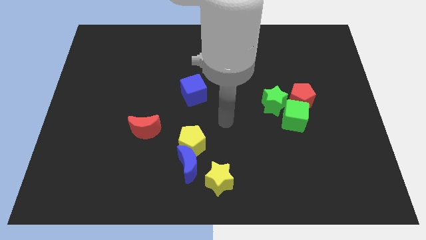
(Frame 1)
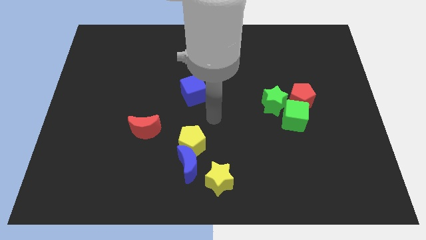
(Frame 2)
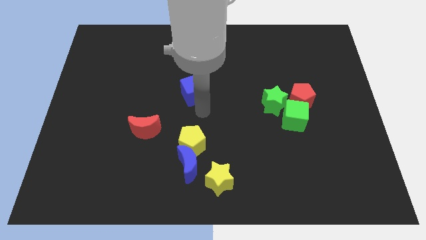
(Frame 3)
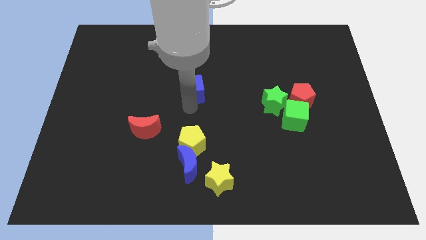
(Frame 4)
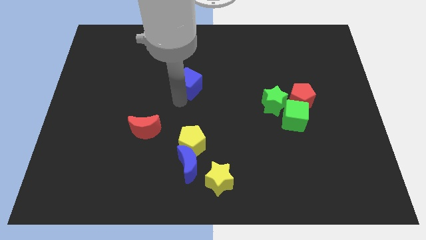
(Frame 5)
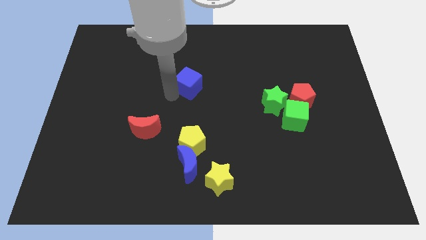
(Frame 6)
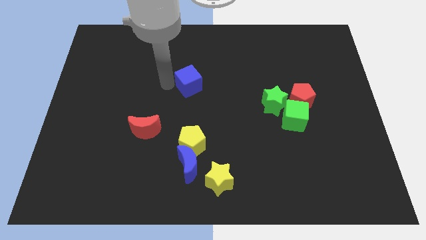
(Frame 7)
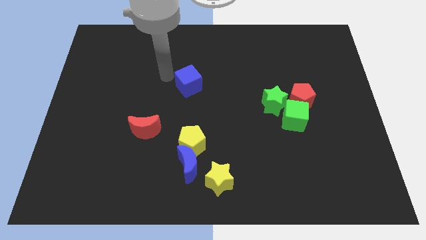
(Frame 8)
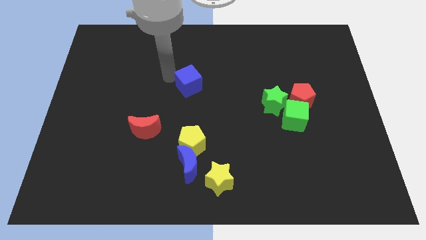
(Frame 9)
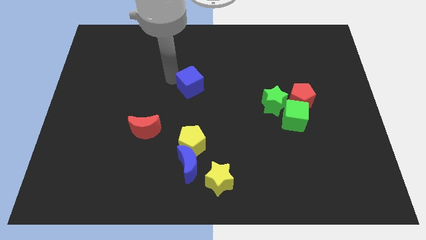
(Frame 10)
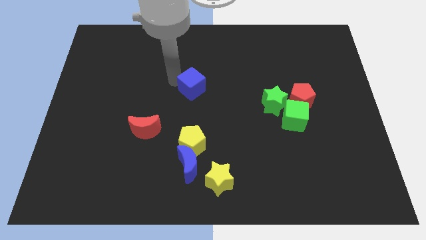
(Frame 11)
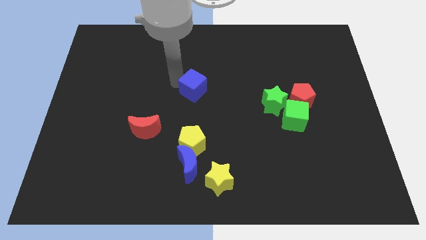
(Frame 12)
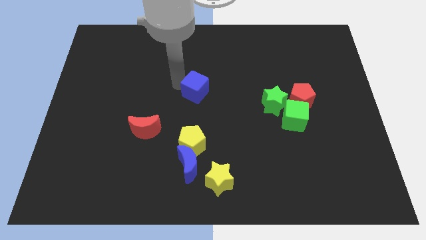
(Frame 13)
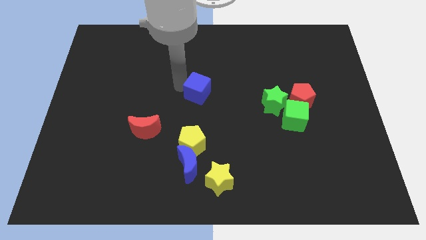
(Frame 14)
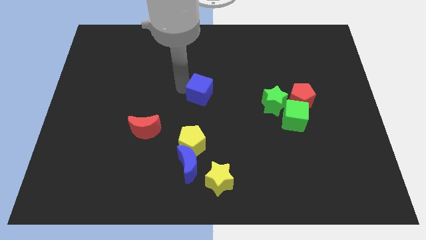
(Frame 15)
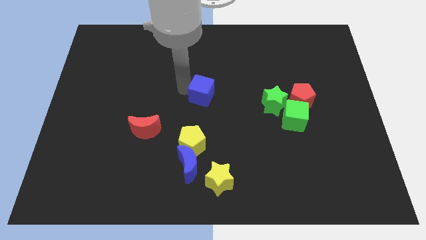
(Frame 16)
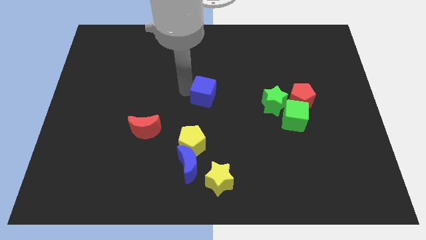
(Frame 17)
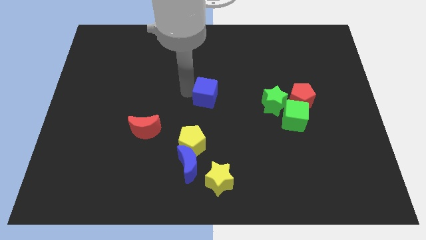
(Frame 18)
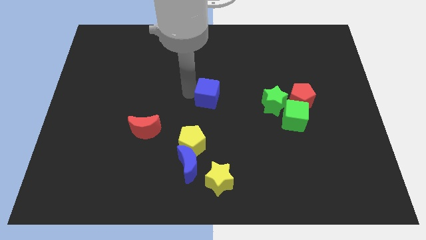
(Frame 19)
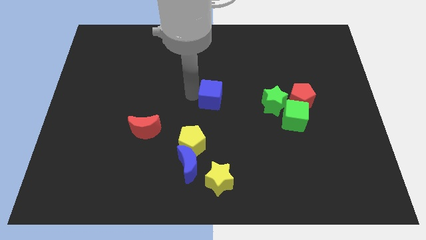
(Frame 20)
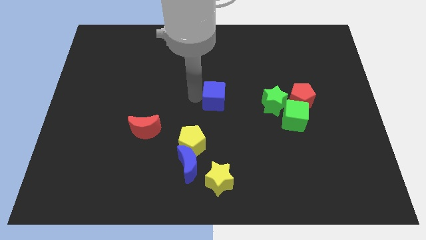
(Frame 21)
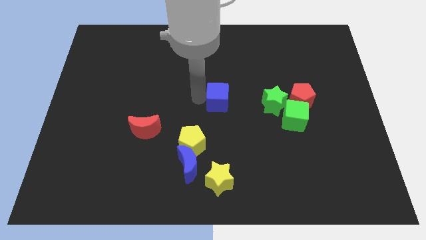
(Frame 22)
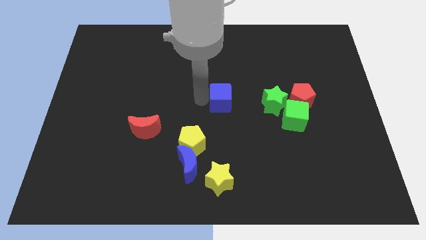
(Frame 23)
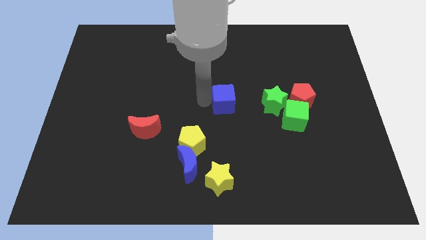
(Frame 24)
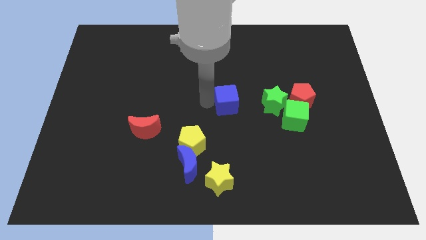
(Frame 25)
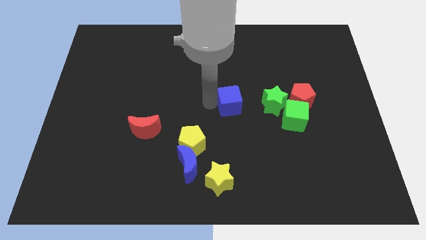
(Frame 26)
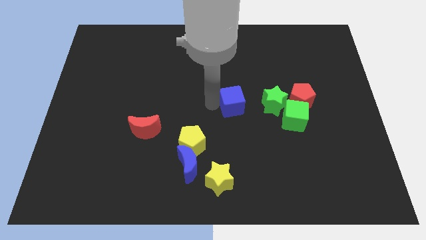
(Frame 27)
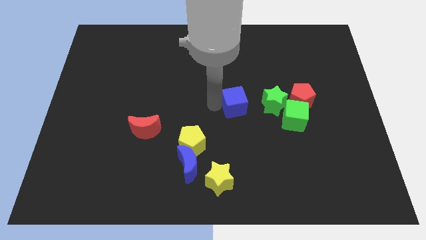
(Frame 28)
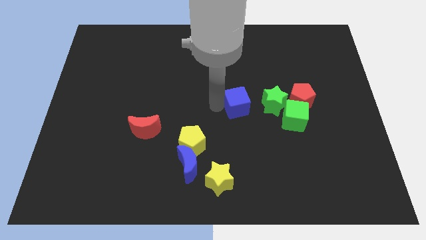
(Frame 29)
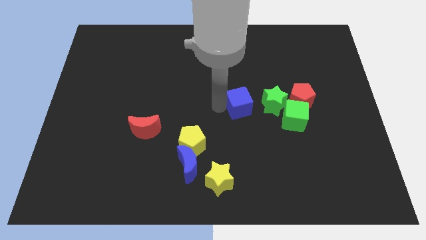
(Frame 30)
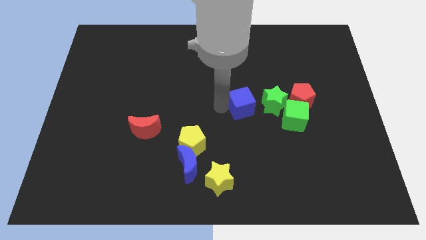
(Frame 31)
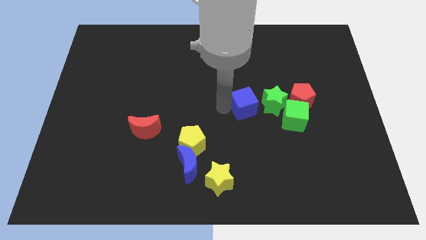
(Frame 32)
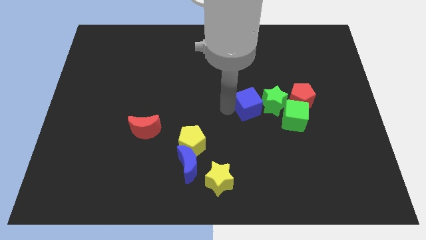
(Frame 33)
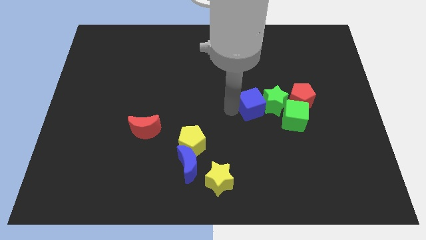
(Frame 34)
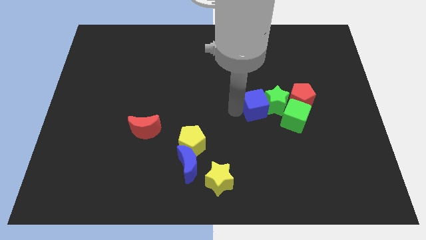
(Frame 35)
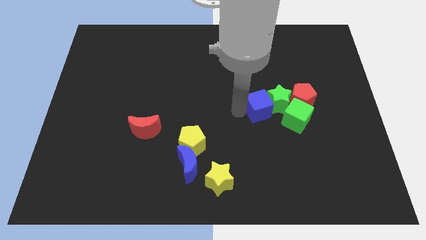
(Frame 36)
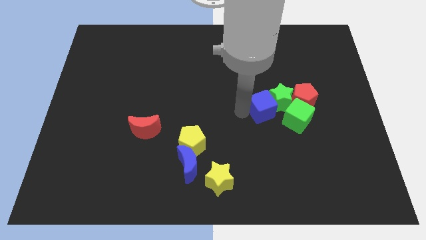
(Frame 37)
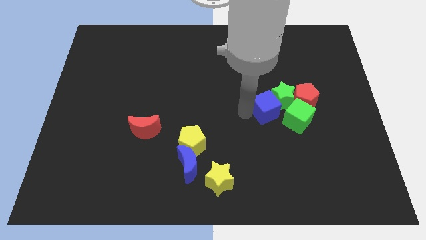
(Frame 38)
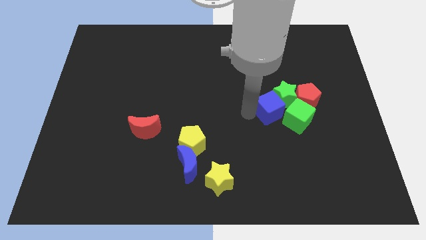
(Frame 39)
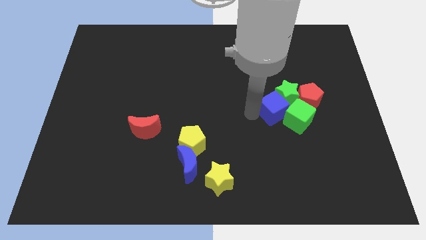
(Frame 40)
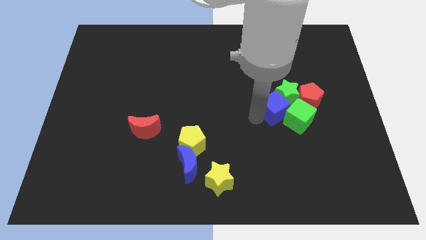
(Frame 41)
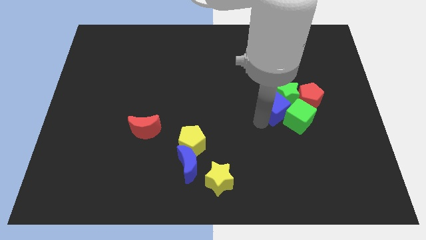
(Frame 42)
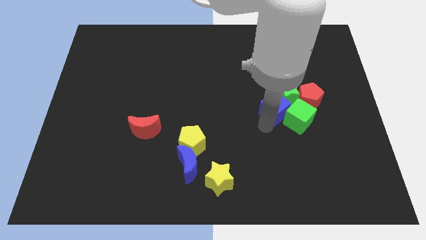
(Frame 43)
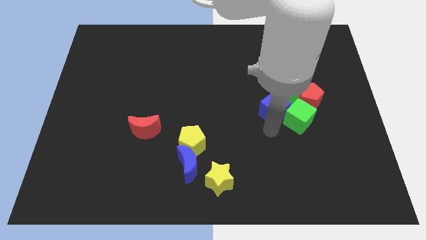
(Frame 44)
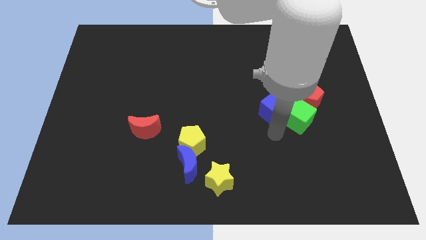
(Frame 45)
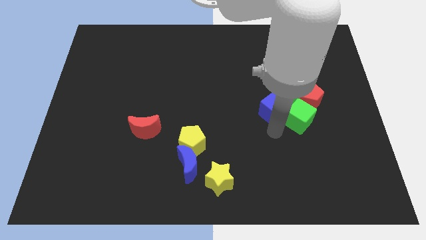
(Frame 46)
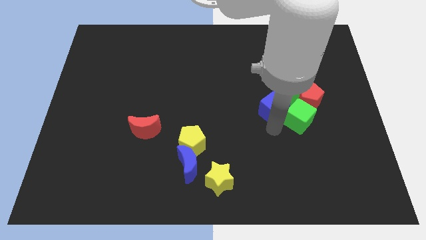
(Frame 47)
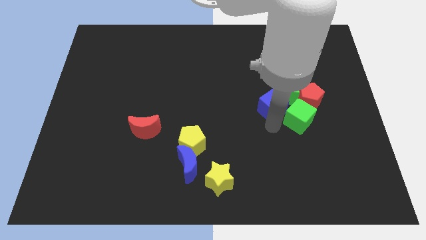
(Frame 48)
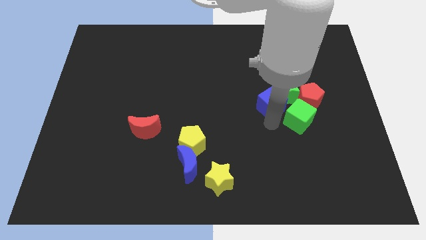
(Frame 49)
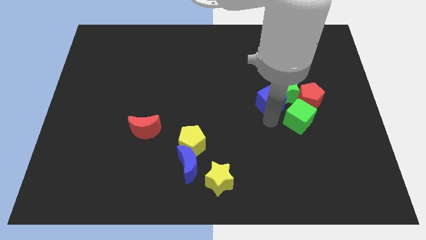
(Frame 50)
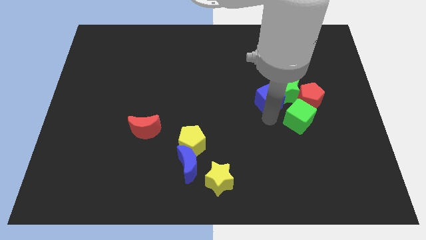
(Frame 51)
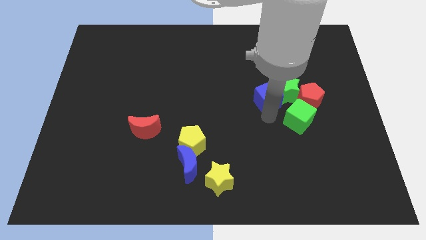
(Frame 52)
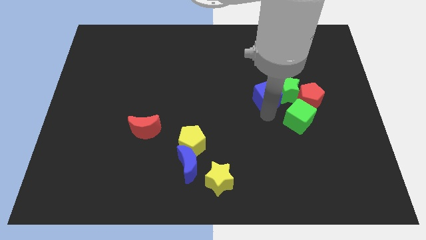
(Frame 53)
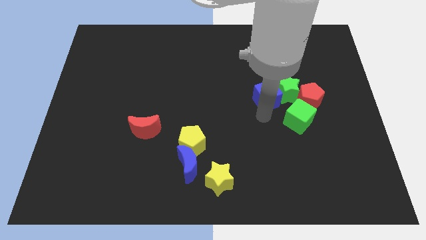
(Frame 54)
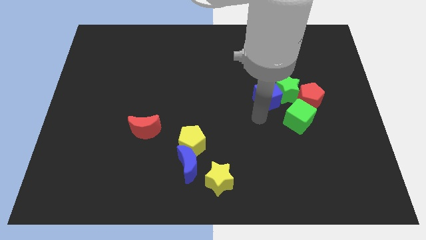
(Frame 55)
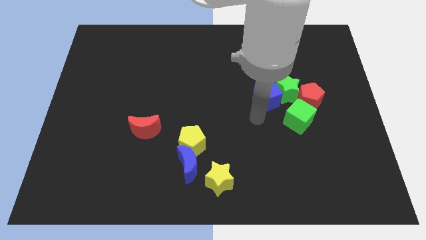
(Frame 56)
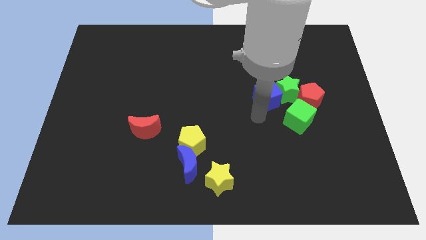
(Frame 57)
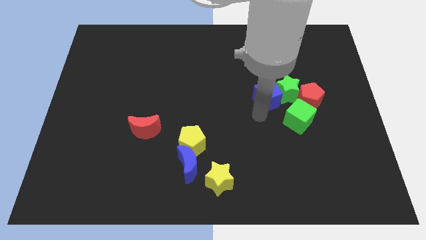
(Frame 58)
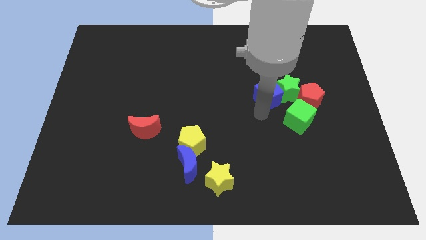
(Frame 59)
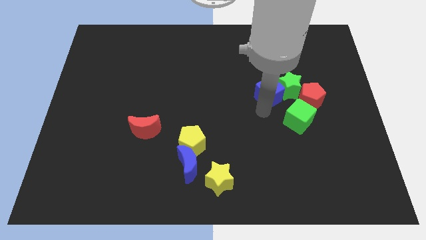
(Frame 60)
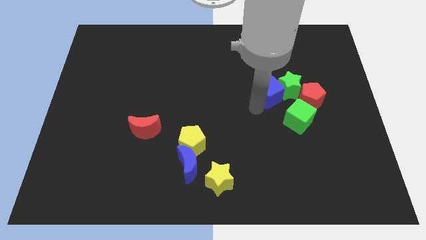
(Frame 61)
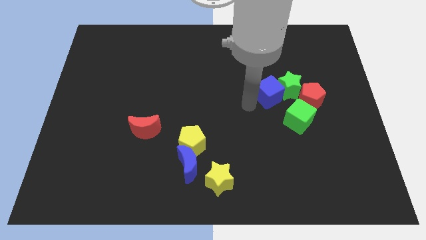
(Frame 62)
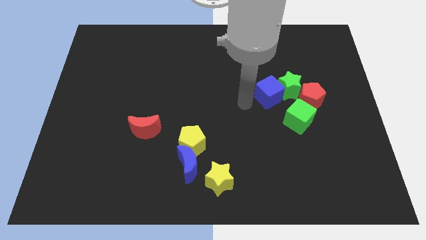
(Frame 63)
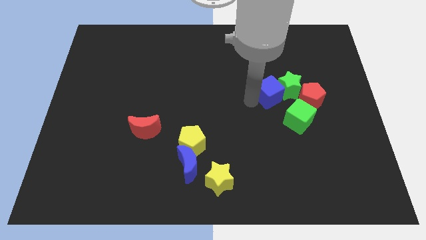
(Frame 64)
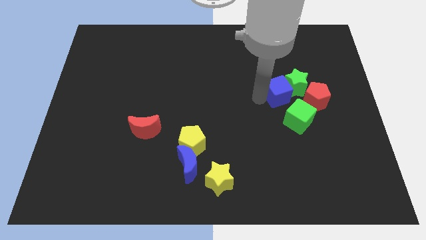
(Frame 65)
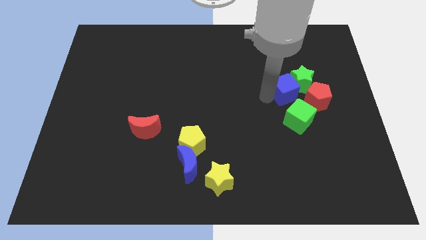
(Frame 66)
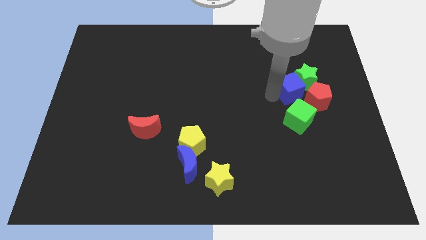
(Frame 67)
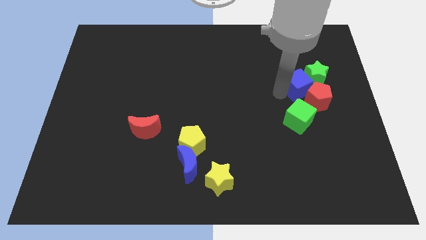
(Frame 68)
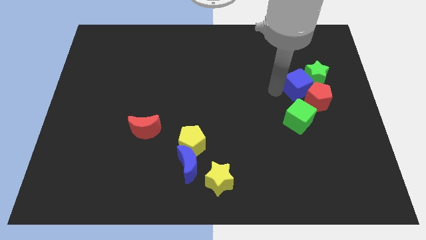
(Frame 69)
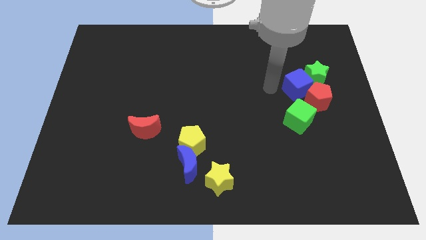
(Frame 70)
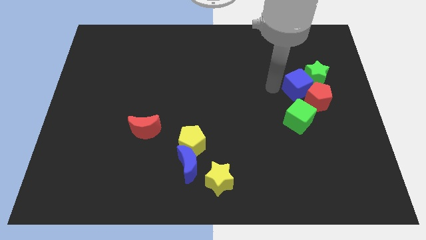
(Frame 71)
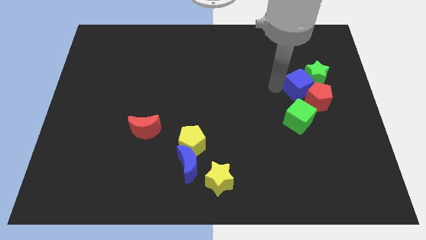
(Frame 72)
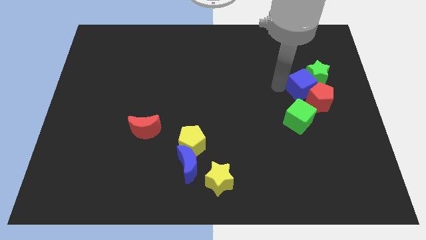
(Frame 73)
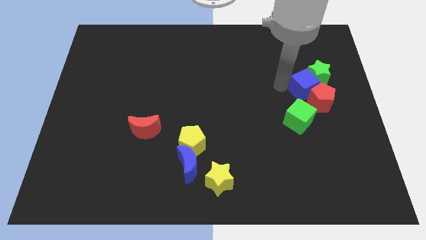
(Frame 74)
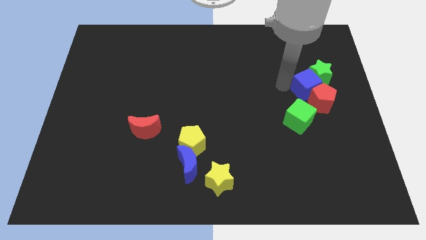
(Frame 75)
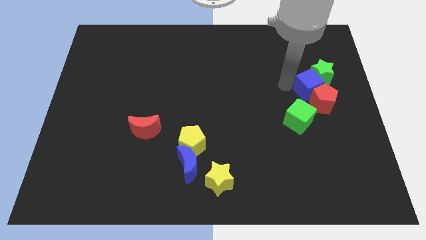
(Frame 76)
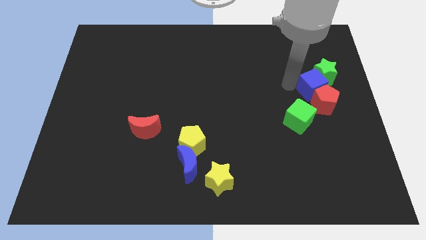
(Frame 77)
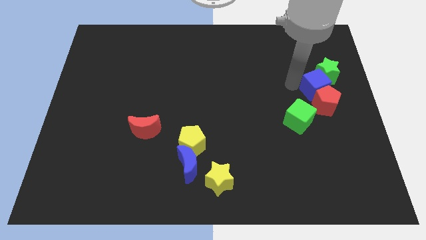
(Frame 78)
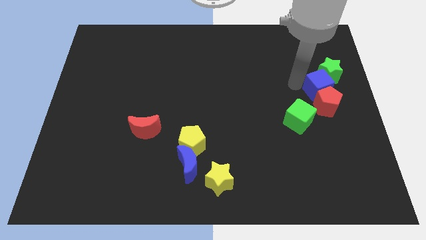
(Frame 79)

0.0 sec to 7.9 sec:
push the blue cube to the right side
